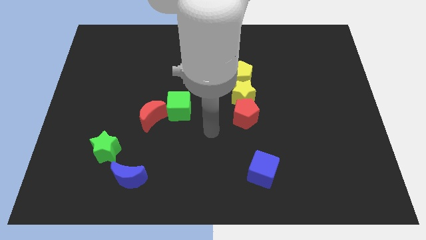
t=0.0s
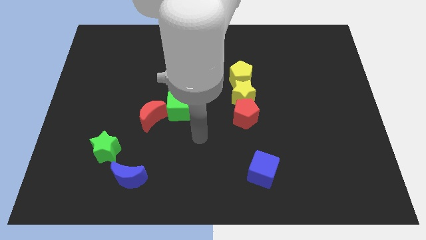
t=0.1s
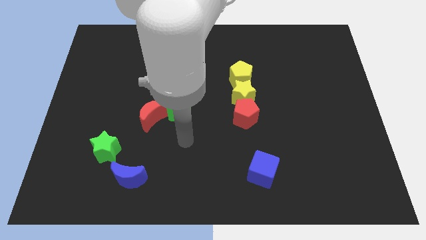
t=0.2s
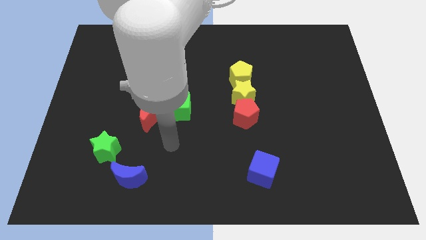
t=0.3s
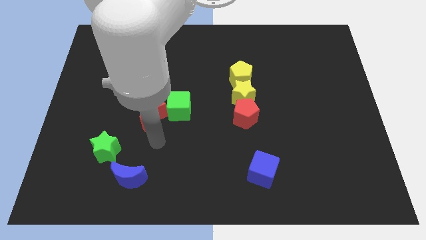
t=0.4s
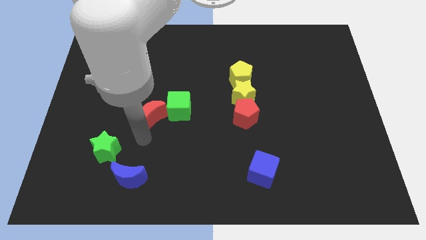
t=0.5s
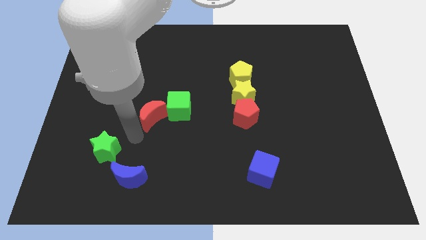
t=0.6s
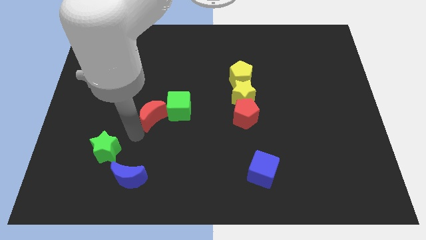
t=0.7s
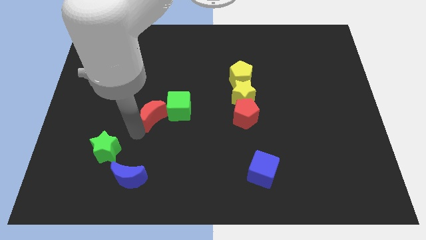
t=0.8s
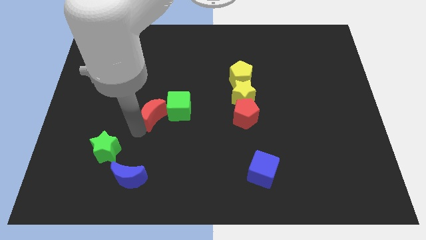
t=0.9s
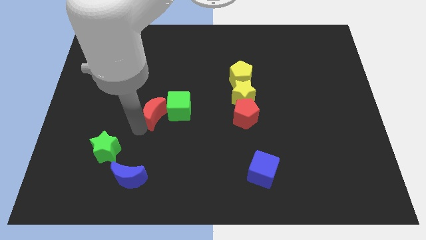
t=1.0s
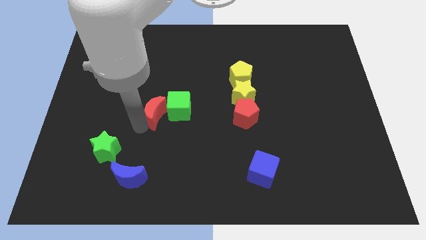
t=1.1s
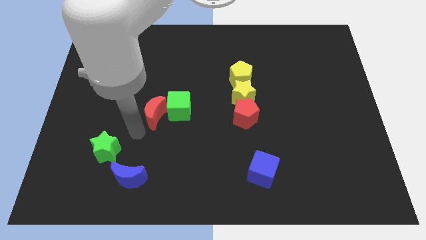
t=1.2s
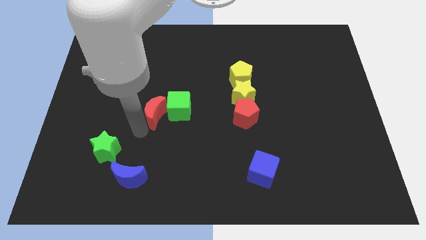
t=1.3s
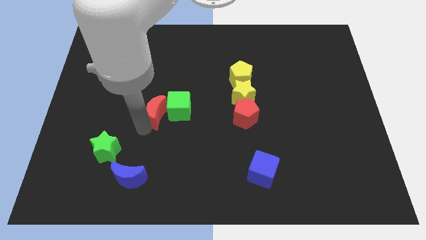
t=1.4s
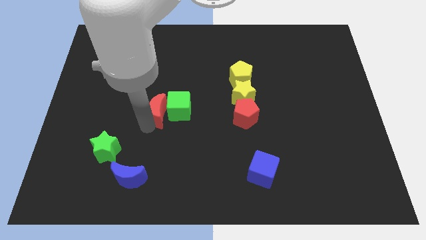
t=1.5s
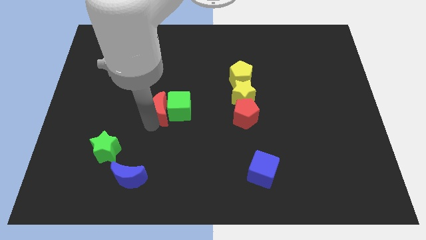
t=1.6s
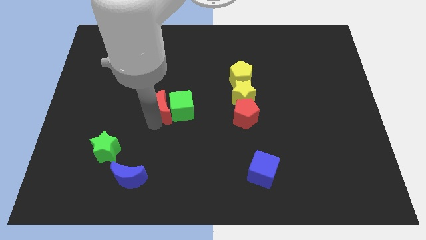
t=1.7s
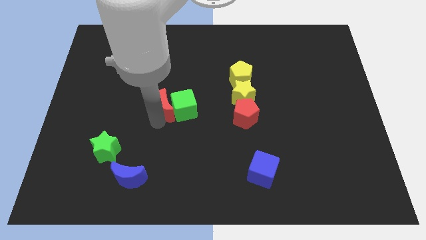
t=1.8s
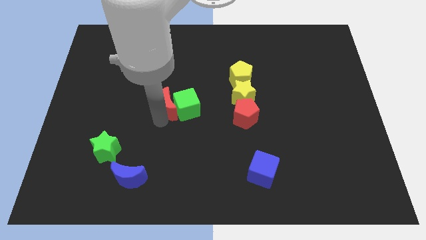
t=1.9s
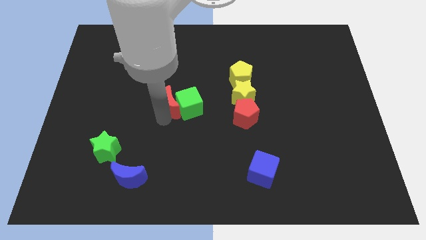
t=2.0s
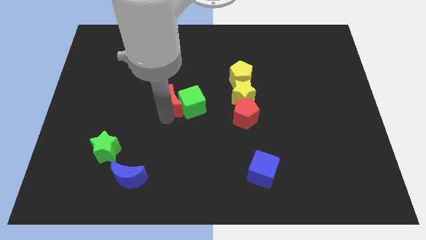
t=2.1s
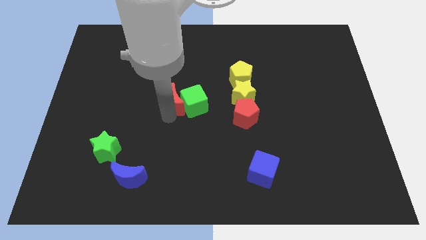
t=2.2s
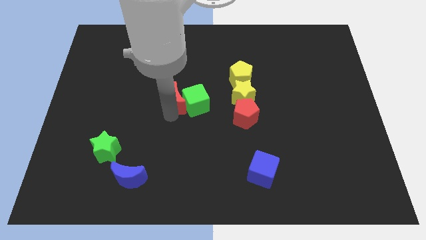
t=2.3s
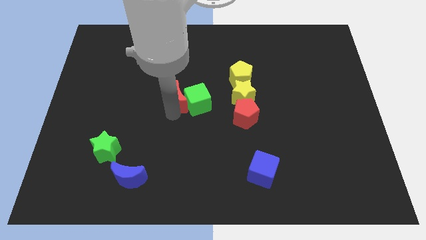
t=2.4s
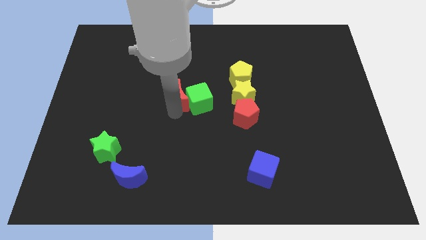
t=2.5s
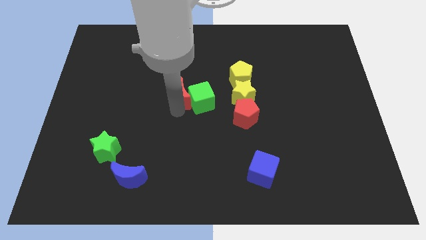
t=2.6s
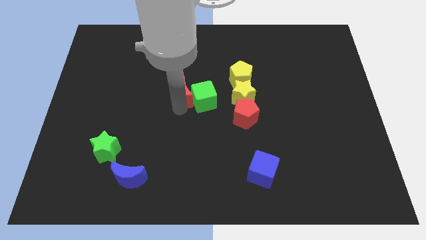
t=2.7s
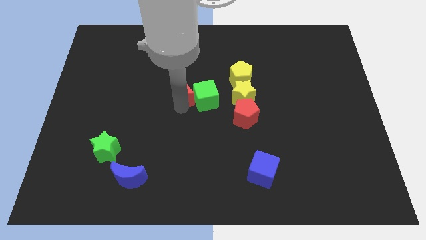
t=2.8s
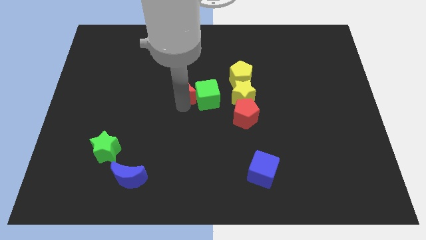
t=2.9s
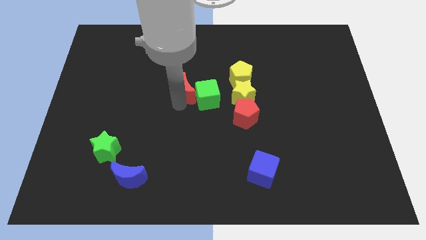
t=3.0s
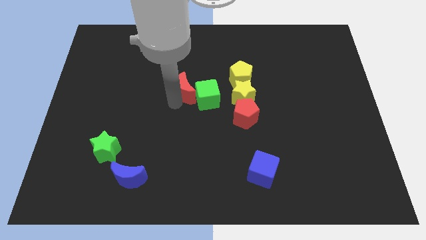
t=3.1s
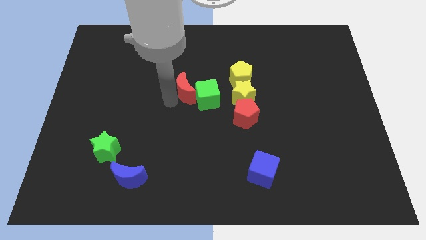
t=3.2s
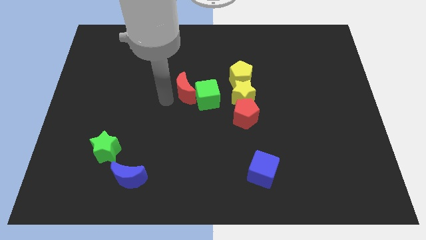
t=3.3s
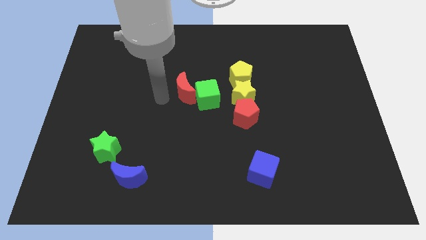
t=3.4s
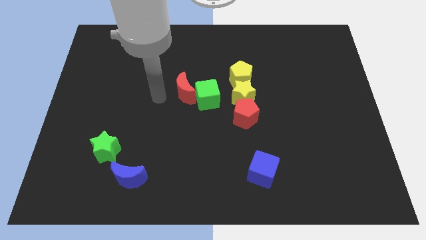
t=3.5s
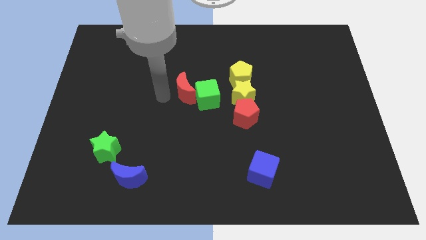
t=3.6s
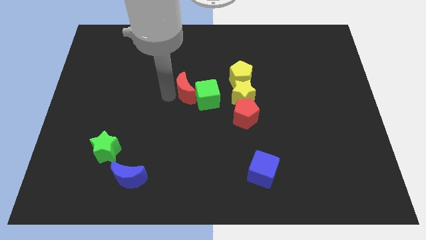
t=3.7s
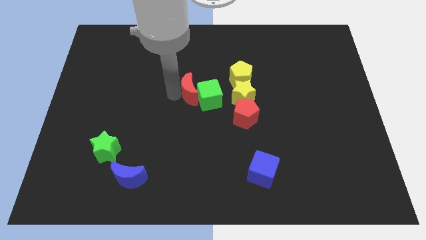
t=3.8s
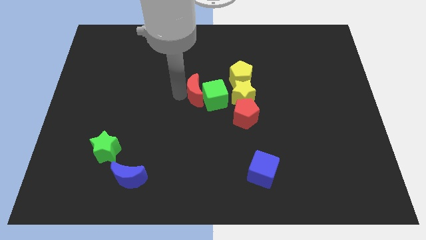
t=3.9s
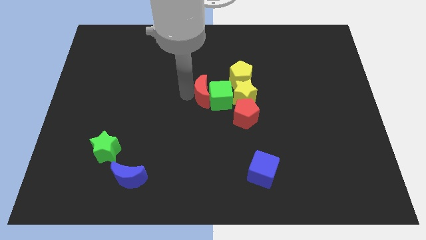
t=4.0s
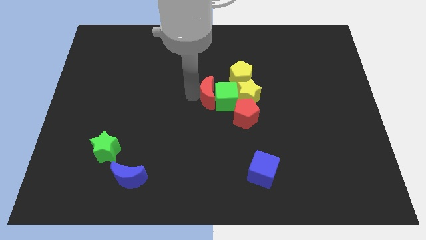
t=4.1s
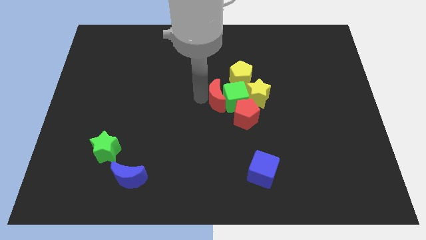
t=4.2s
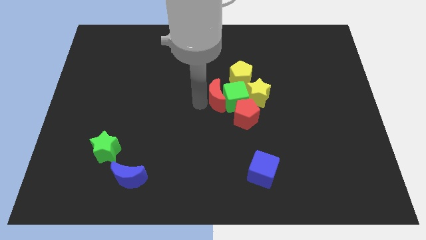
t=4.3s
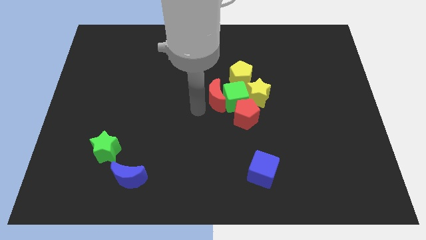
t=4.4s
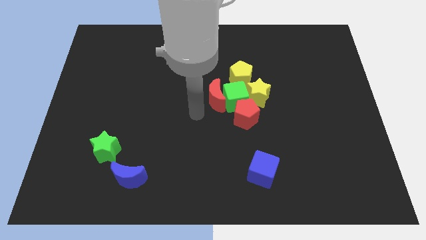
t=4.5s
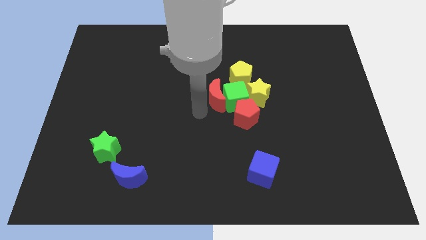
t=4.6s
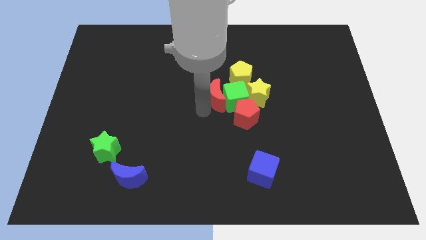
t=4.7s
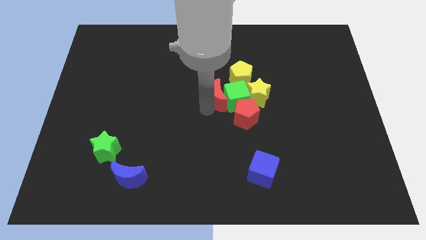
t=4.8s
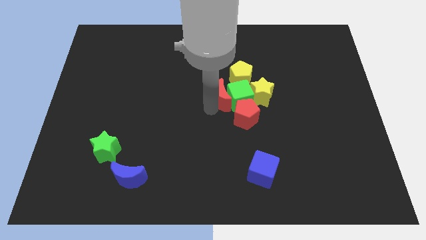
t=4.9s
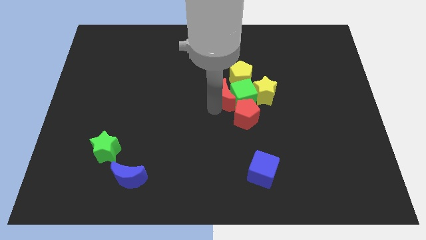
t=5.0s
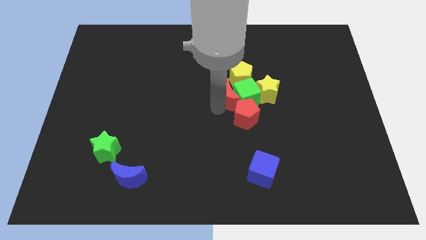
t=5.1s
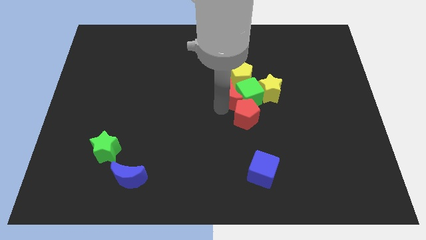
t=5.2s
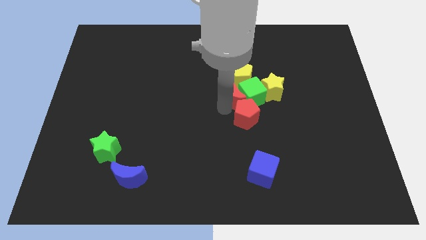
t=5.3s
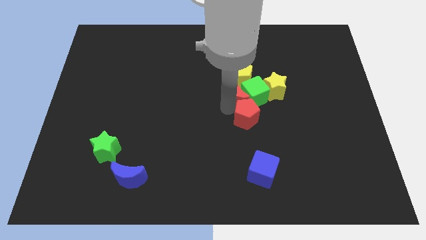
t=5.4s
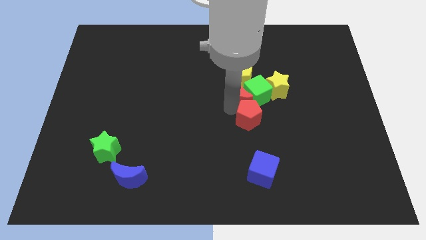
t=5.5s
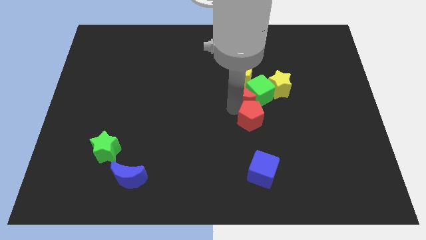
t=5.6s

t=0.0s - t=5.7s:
put the red moon next to the yellow pentagon

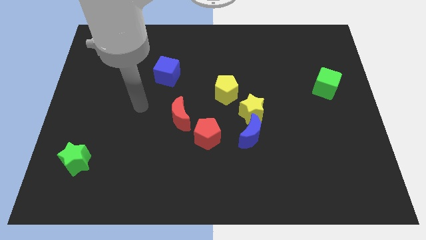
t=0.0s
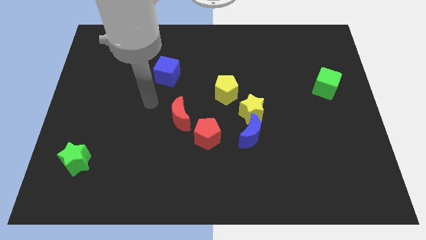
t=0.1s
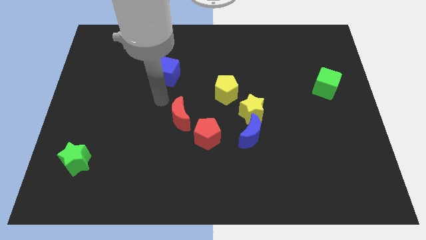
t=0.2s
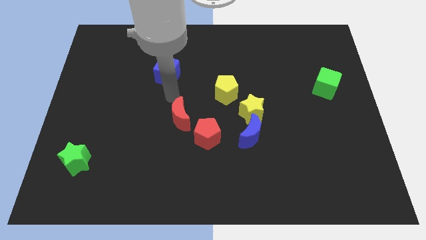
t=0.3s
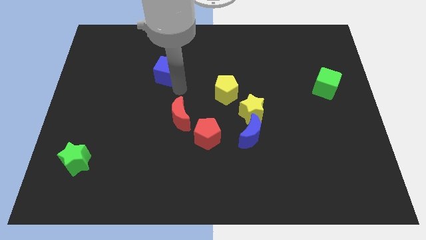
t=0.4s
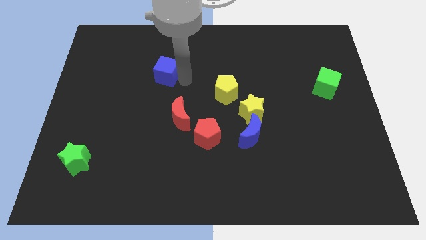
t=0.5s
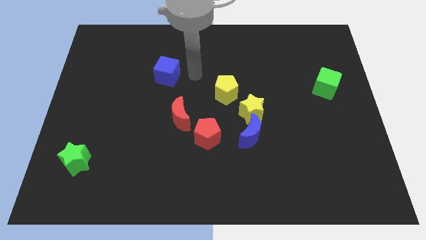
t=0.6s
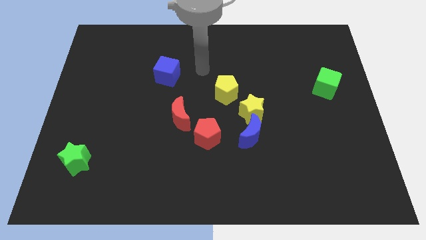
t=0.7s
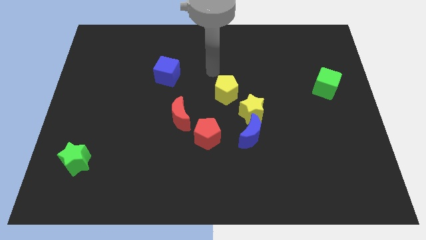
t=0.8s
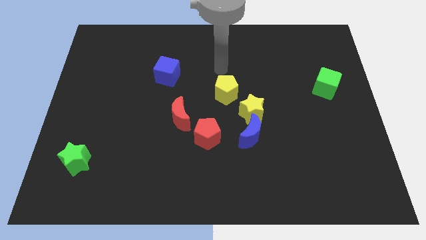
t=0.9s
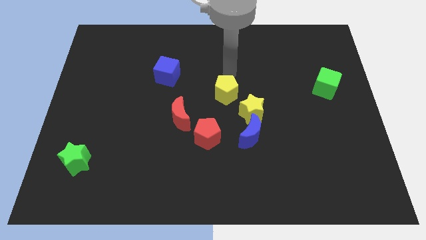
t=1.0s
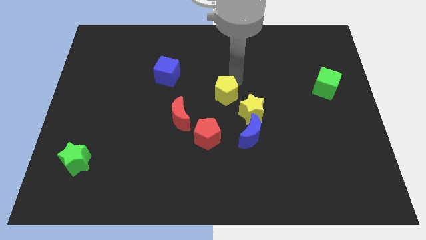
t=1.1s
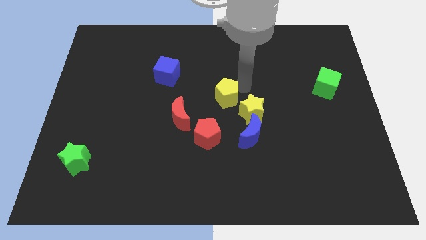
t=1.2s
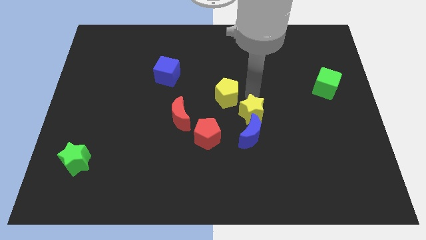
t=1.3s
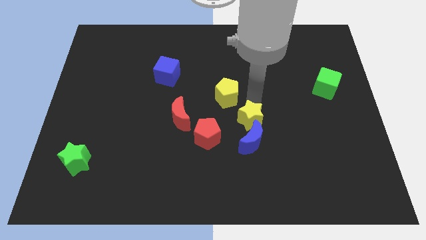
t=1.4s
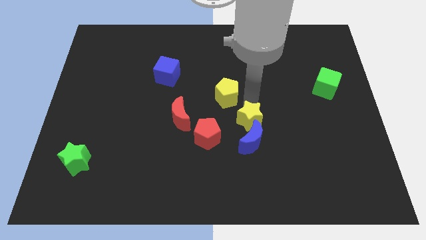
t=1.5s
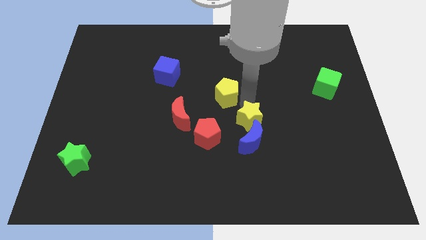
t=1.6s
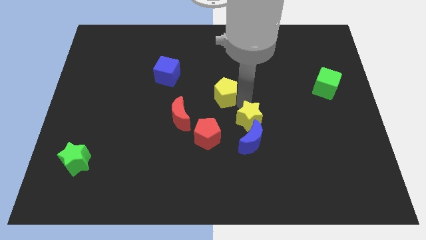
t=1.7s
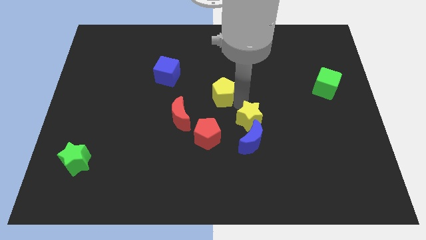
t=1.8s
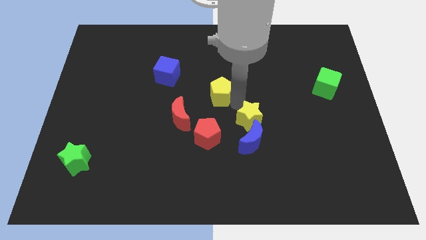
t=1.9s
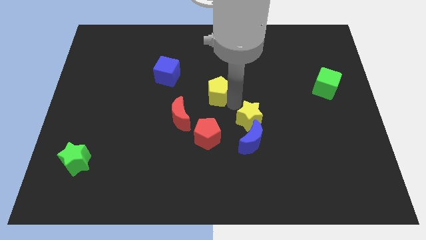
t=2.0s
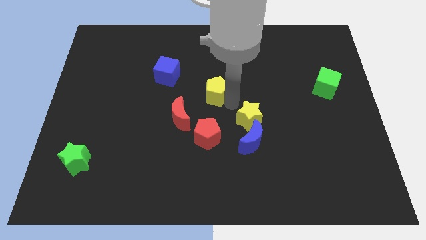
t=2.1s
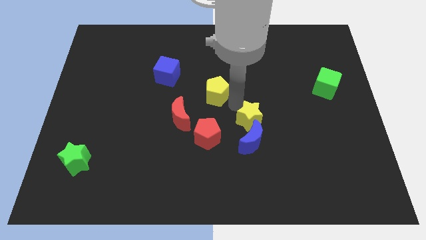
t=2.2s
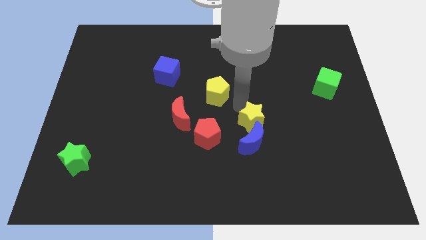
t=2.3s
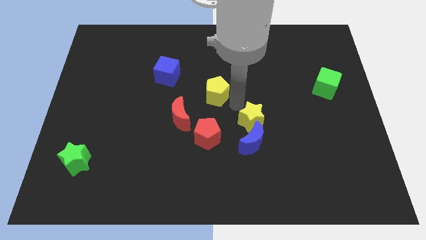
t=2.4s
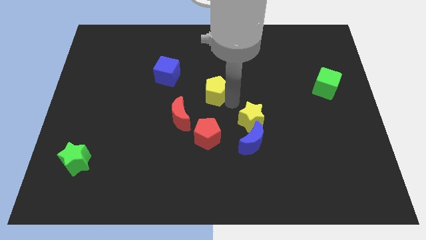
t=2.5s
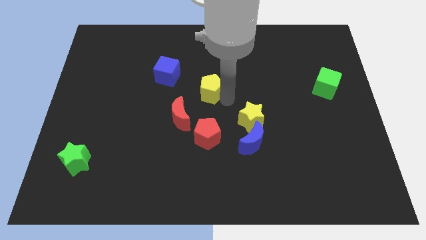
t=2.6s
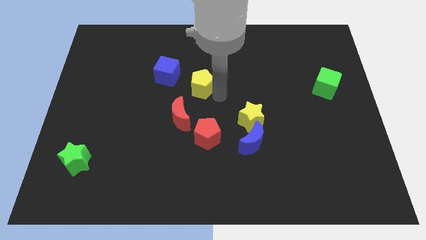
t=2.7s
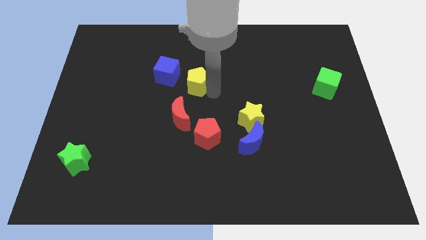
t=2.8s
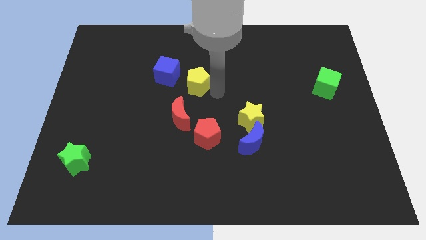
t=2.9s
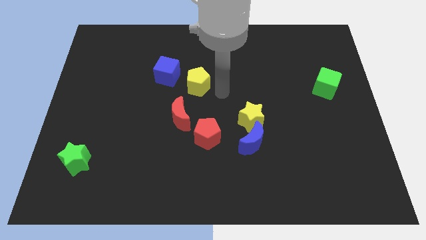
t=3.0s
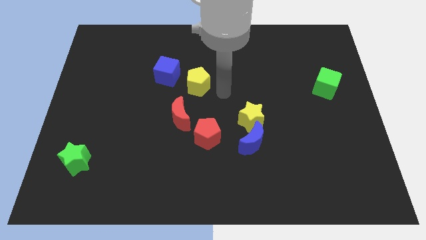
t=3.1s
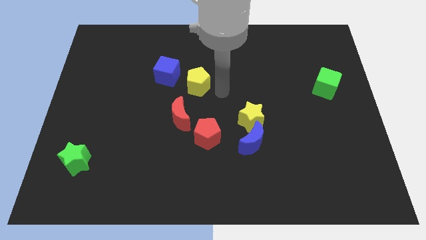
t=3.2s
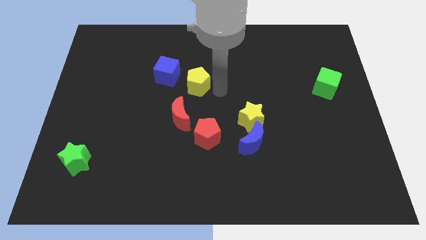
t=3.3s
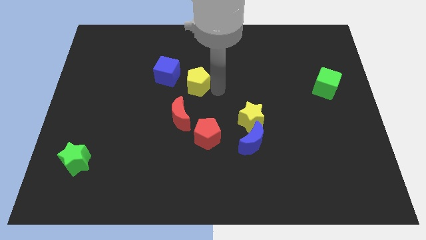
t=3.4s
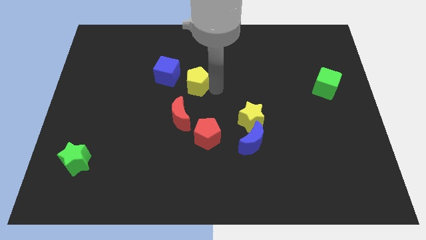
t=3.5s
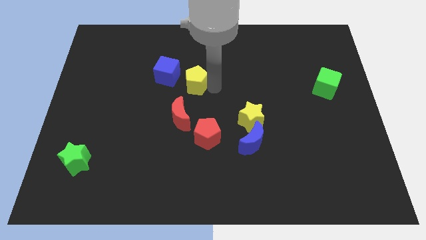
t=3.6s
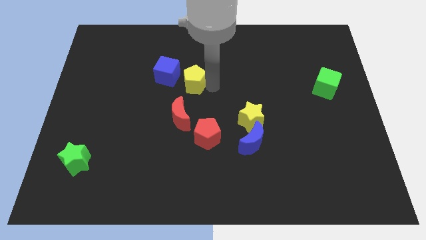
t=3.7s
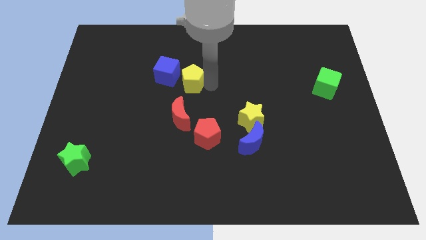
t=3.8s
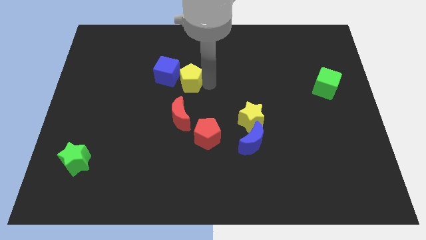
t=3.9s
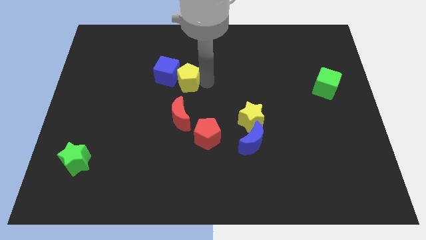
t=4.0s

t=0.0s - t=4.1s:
push the yellow pentagon next to the blue cube
